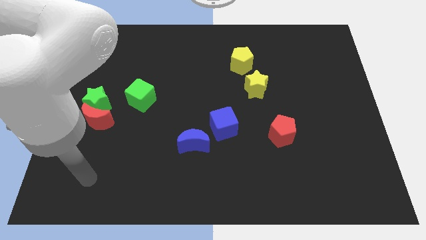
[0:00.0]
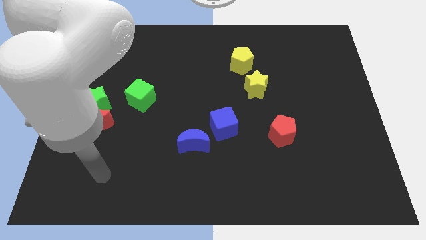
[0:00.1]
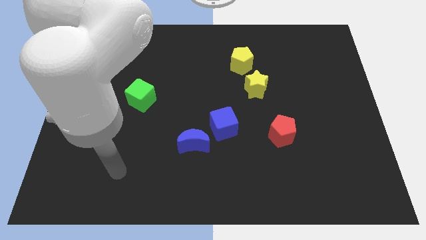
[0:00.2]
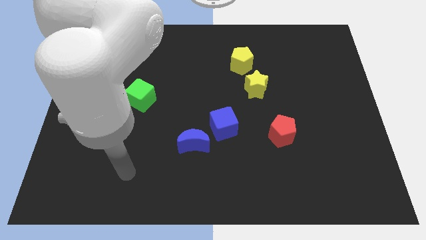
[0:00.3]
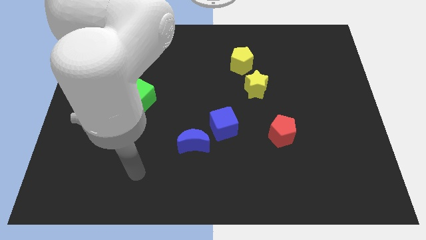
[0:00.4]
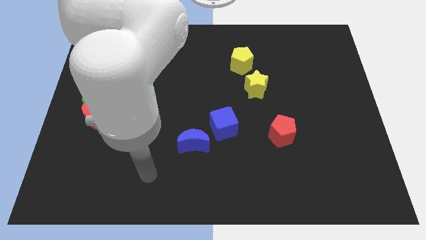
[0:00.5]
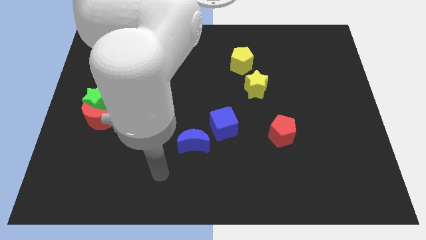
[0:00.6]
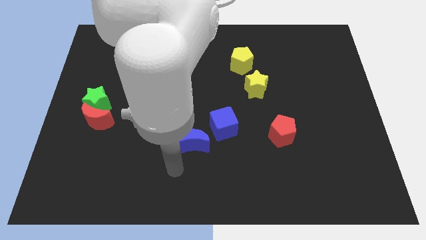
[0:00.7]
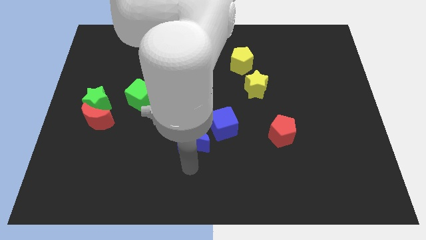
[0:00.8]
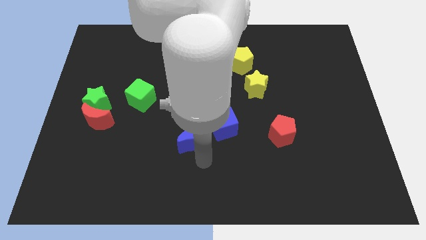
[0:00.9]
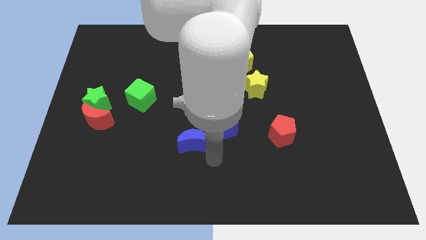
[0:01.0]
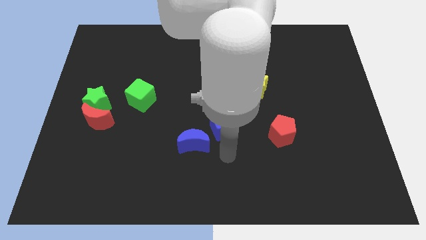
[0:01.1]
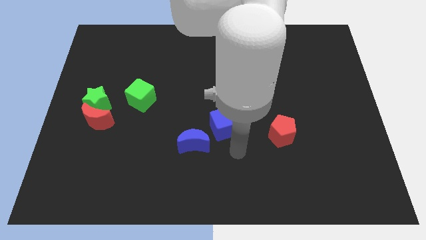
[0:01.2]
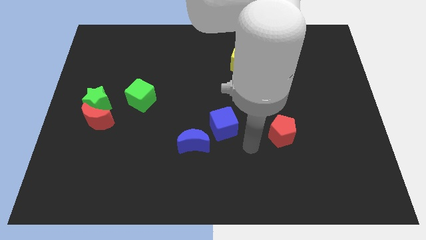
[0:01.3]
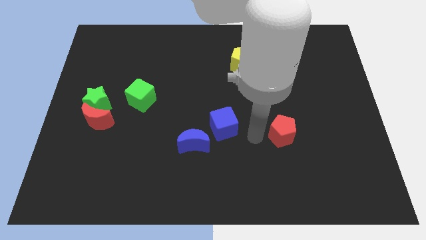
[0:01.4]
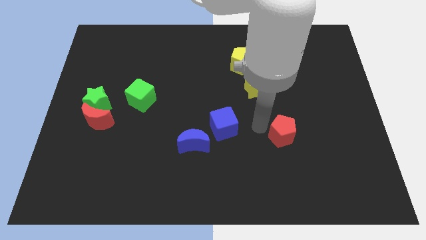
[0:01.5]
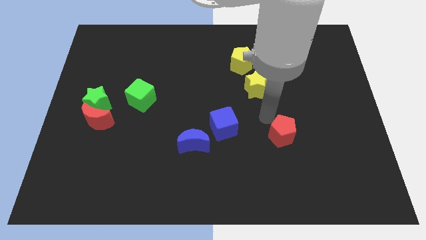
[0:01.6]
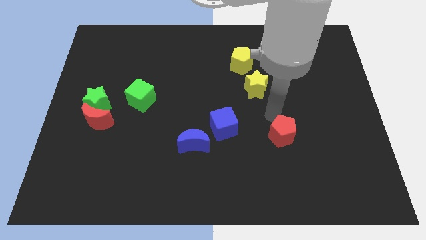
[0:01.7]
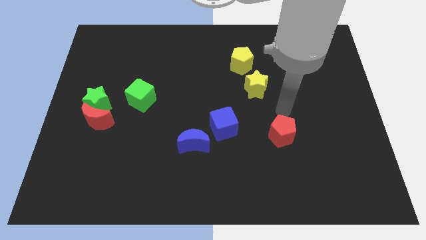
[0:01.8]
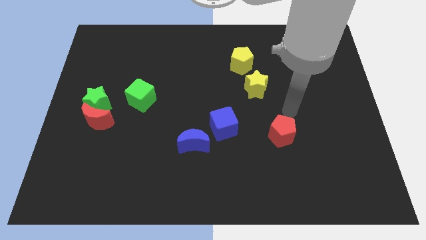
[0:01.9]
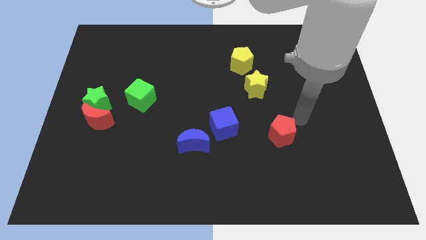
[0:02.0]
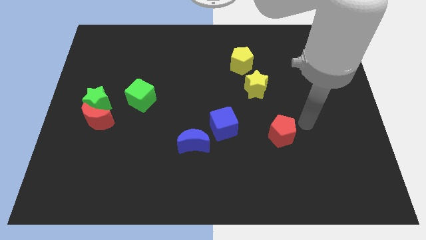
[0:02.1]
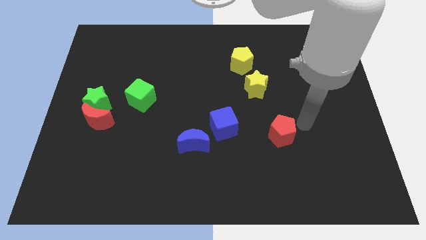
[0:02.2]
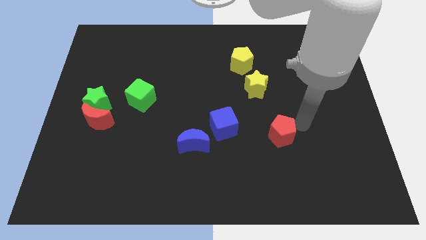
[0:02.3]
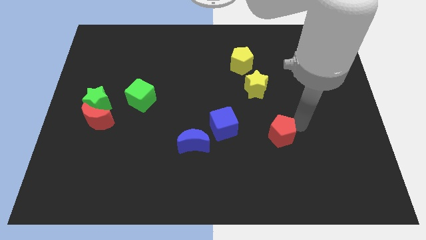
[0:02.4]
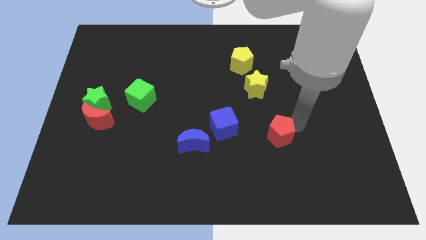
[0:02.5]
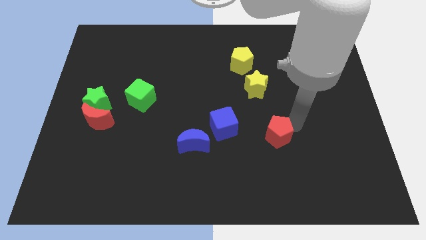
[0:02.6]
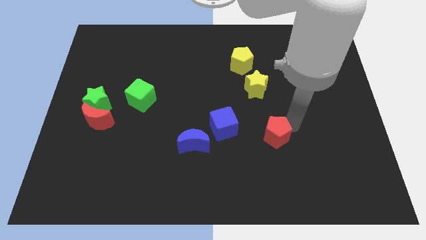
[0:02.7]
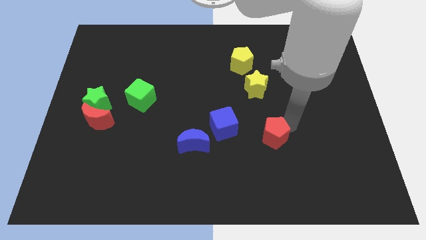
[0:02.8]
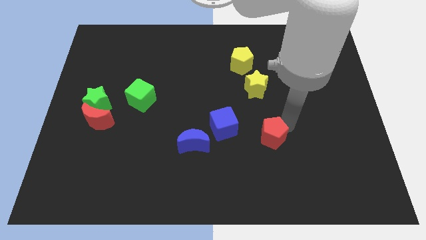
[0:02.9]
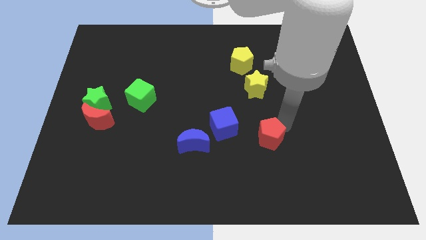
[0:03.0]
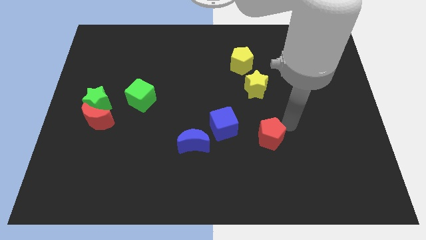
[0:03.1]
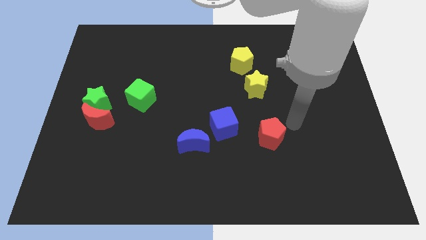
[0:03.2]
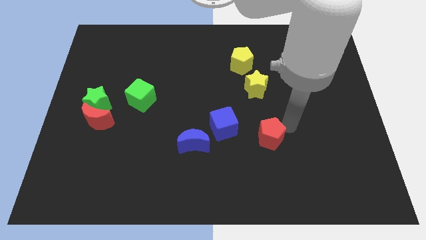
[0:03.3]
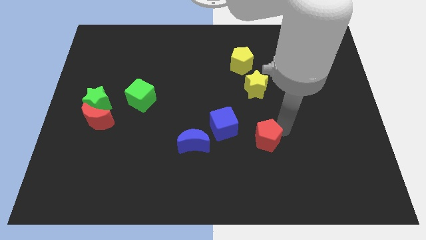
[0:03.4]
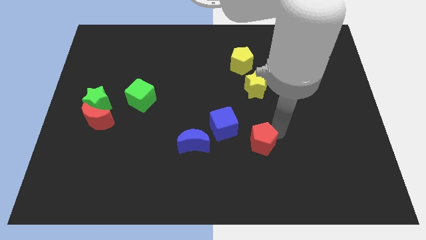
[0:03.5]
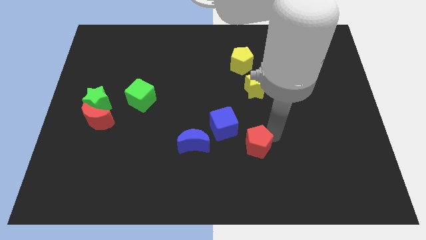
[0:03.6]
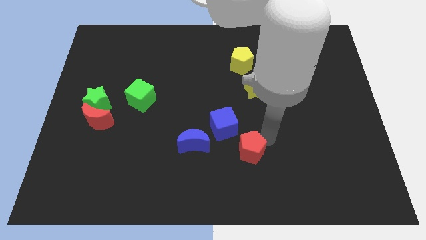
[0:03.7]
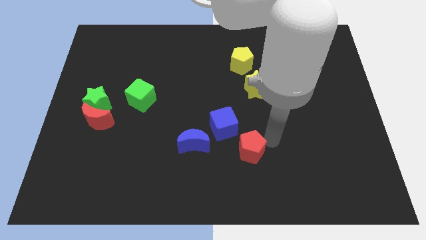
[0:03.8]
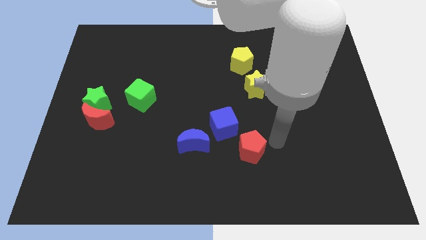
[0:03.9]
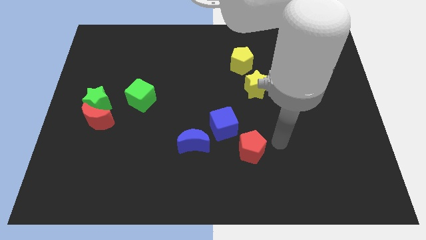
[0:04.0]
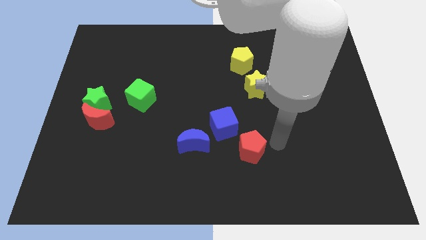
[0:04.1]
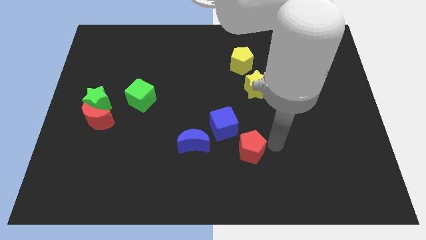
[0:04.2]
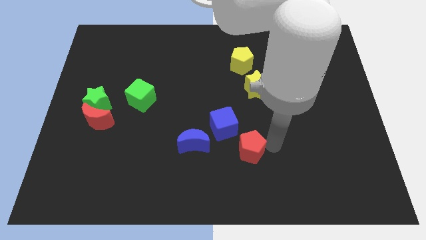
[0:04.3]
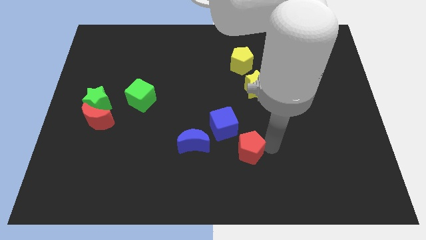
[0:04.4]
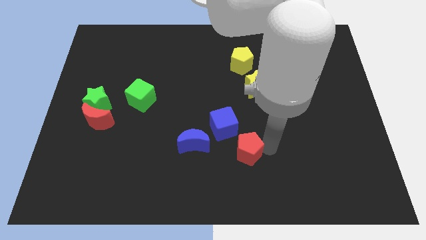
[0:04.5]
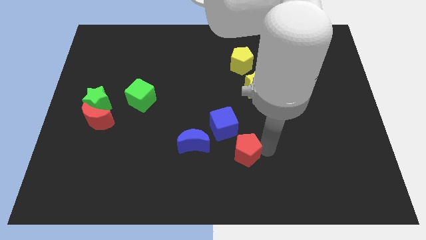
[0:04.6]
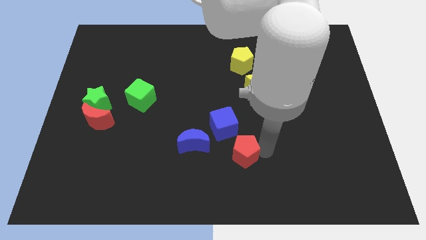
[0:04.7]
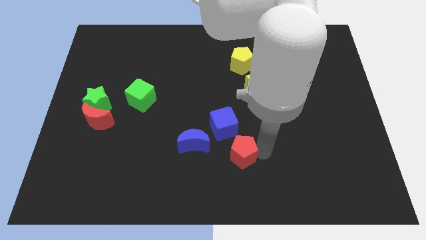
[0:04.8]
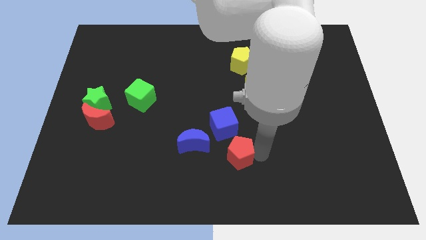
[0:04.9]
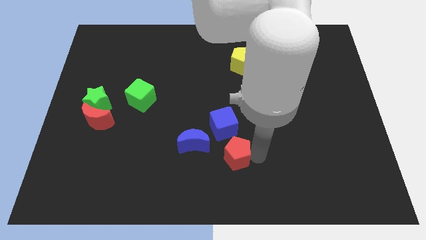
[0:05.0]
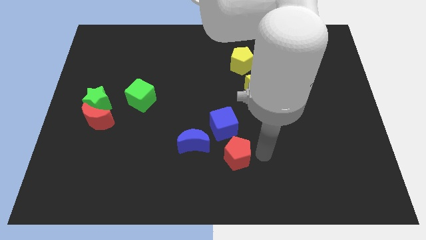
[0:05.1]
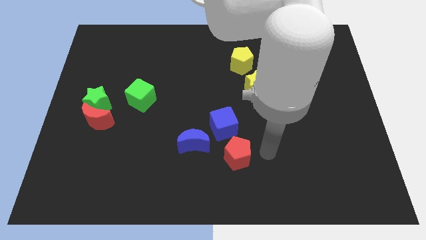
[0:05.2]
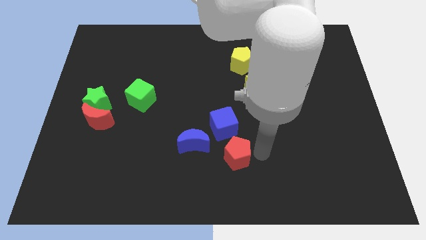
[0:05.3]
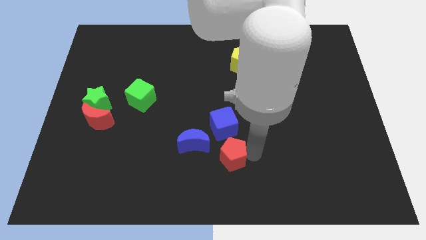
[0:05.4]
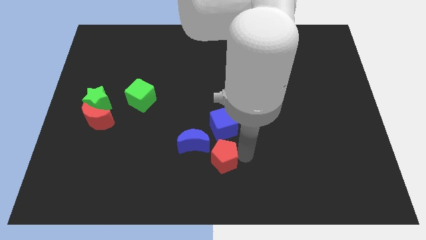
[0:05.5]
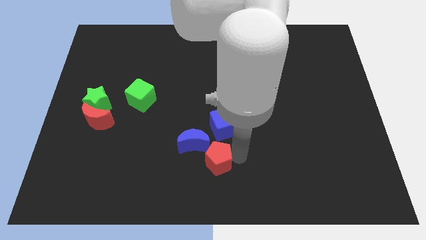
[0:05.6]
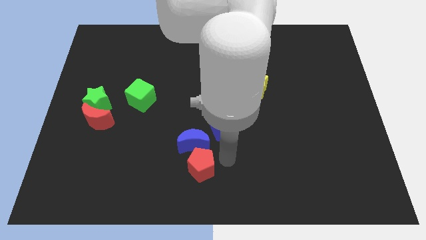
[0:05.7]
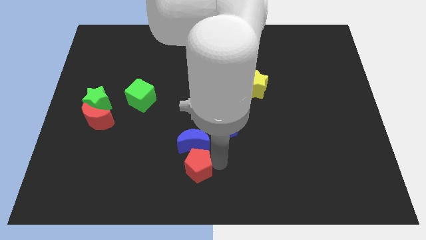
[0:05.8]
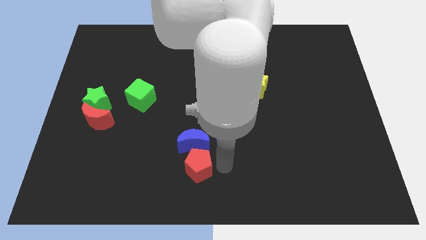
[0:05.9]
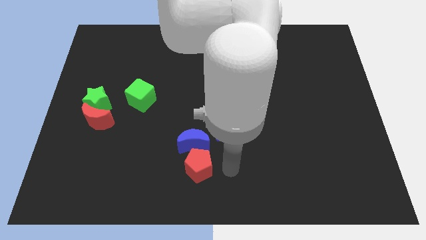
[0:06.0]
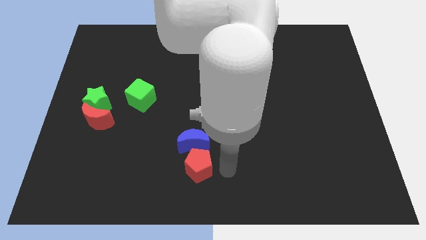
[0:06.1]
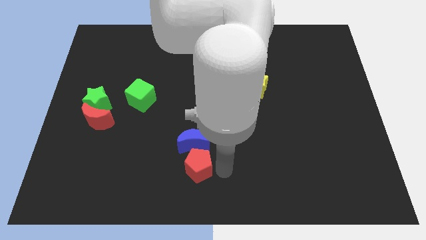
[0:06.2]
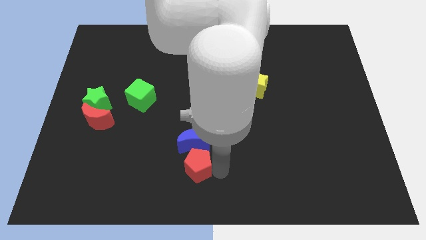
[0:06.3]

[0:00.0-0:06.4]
slide the red pentagon to the bottom left side of the blue moon
